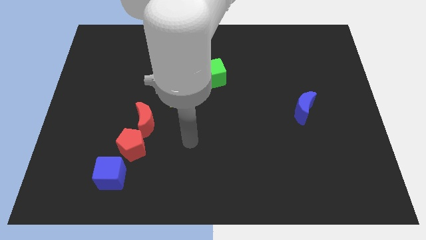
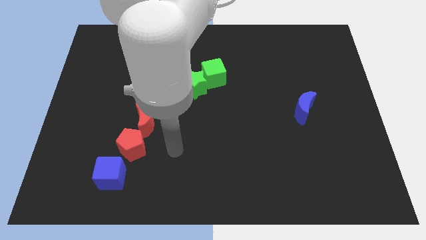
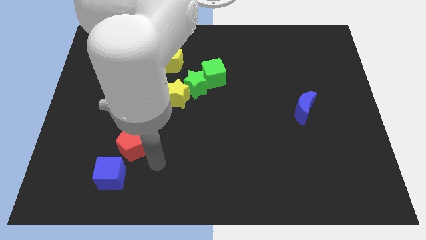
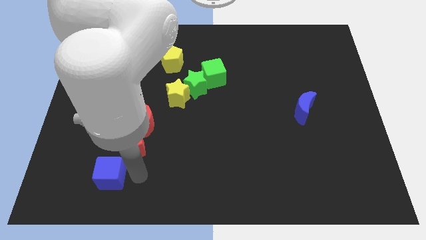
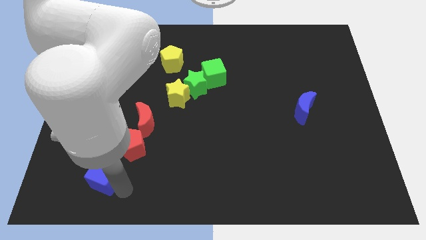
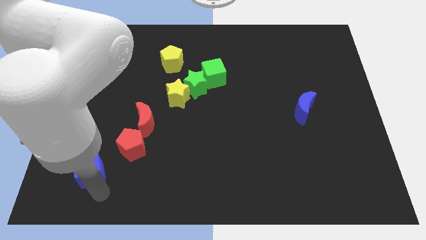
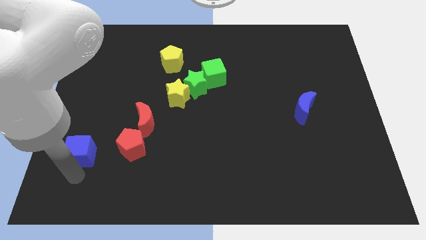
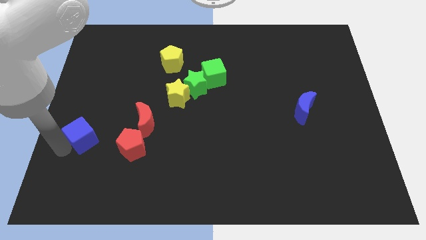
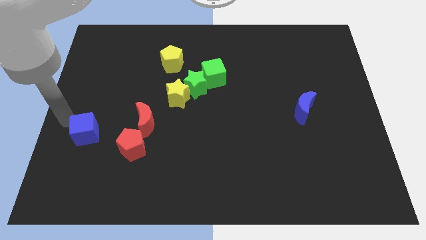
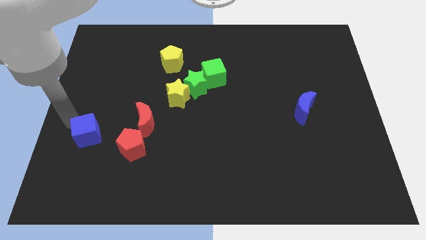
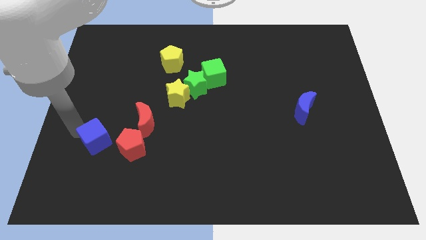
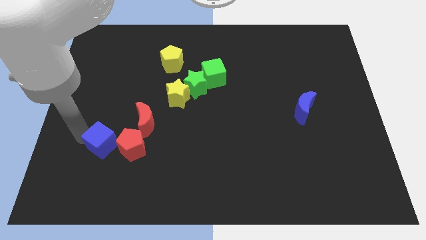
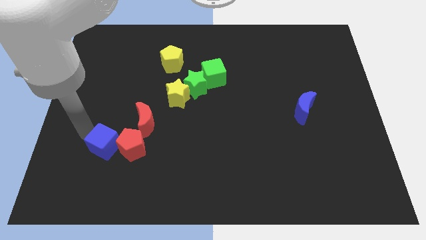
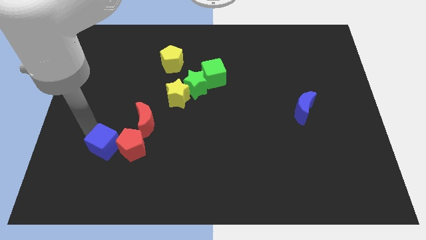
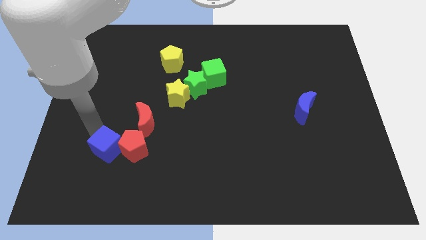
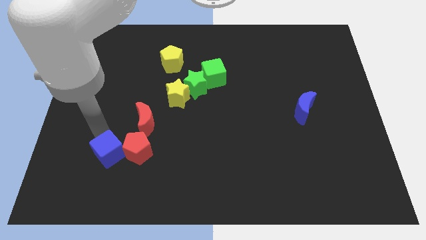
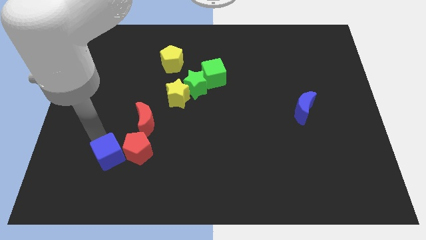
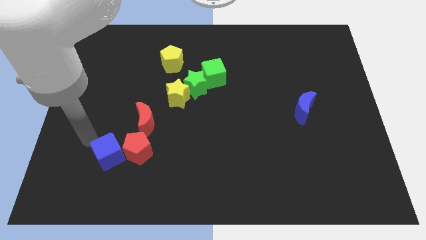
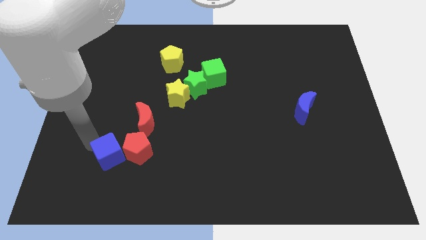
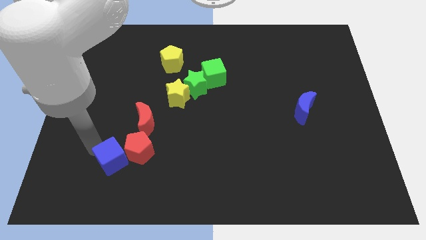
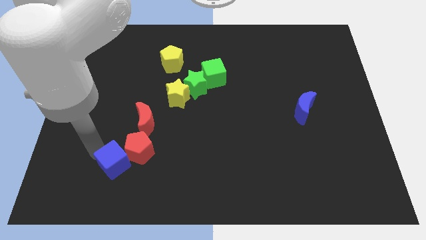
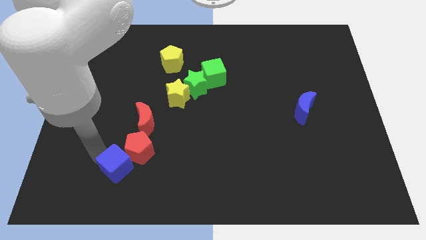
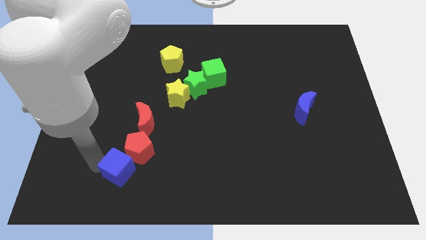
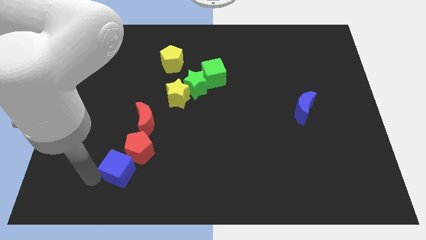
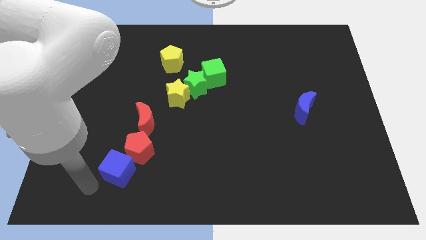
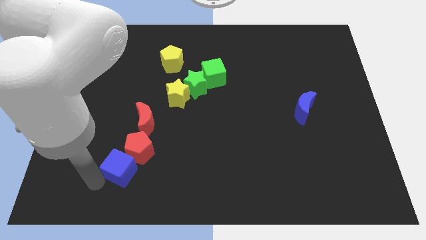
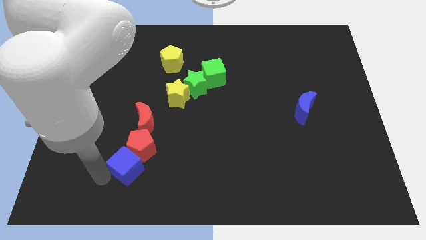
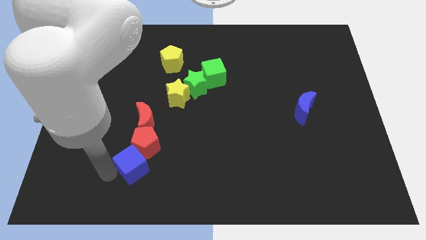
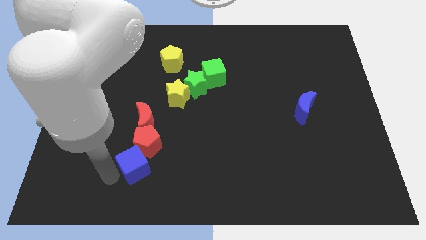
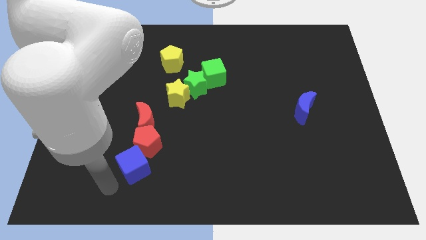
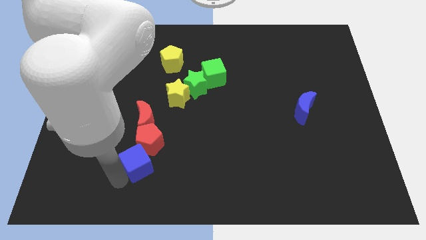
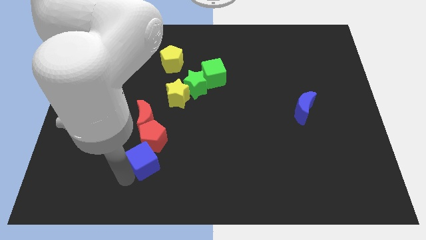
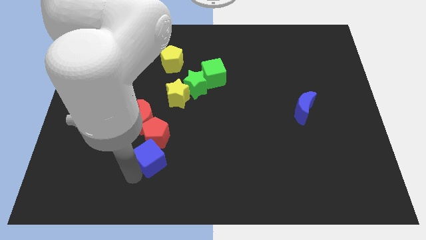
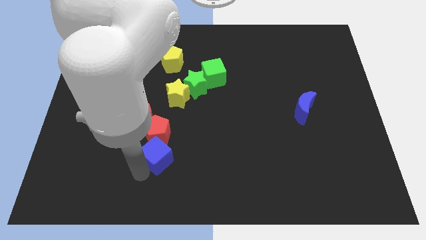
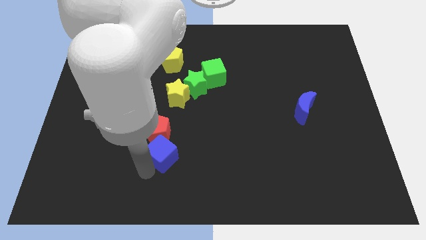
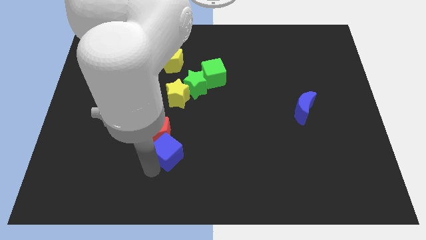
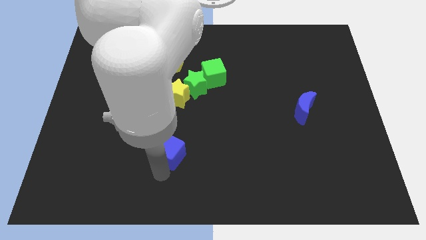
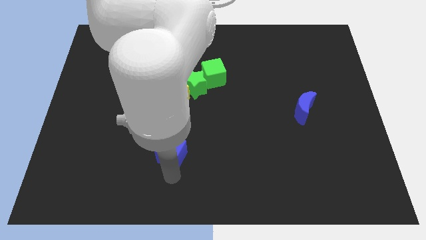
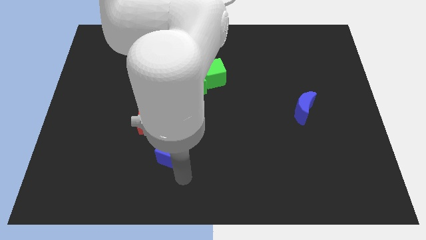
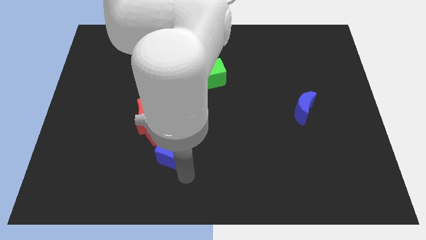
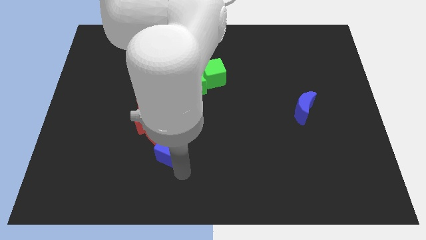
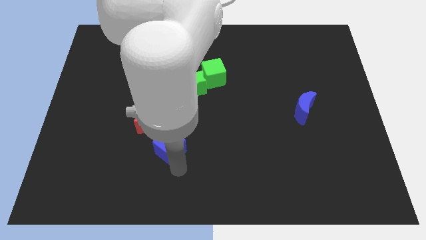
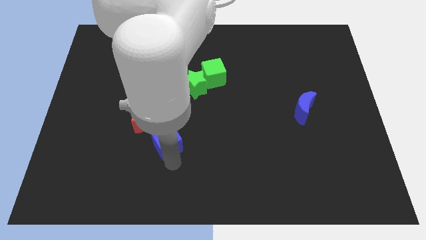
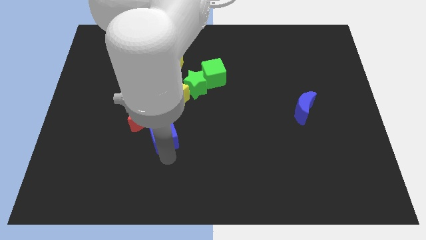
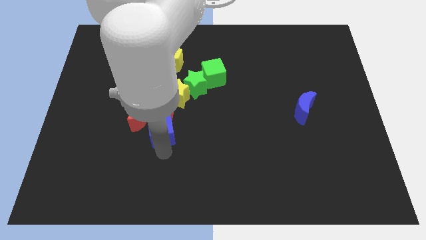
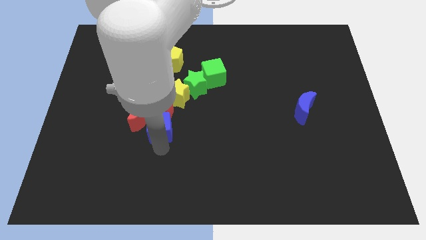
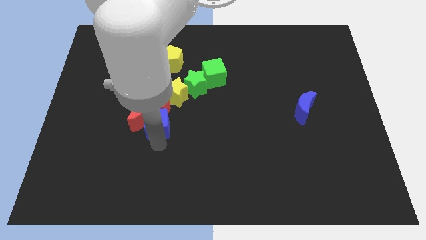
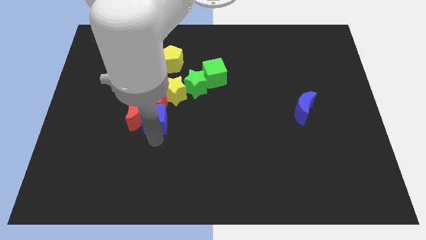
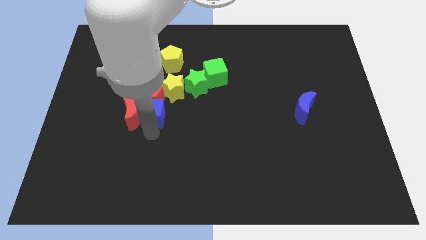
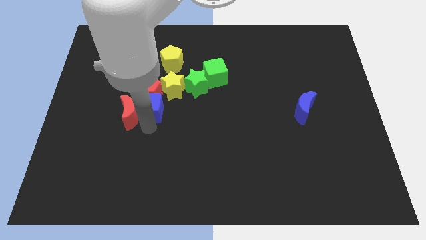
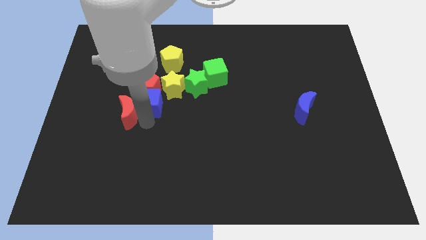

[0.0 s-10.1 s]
move the blue cube below the yellow pentagon

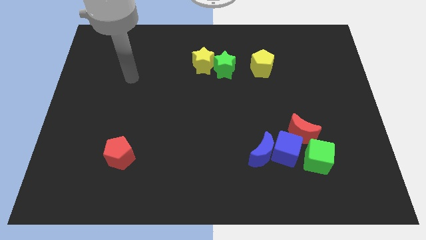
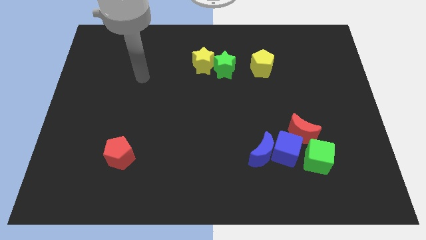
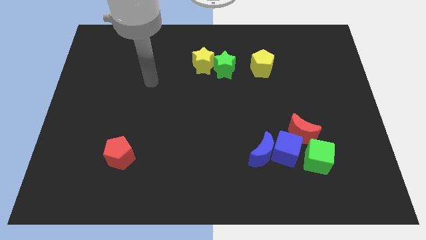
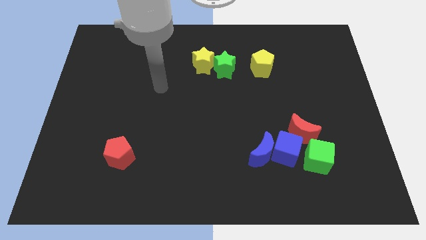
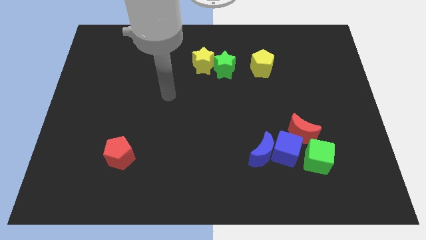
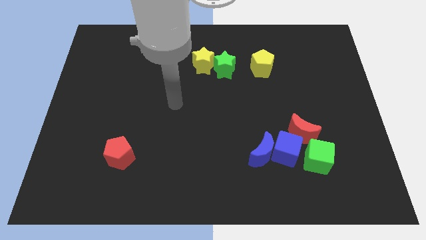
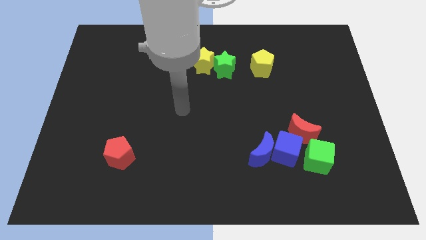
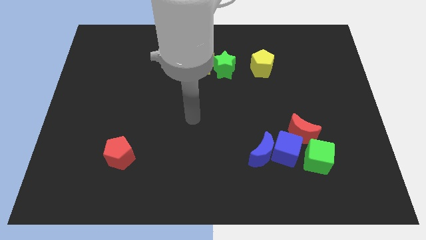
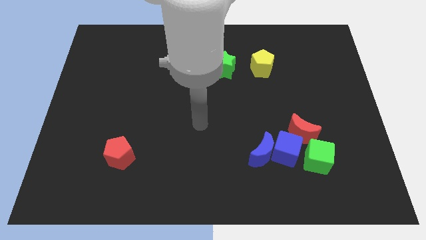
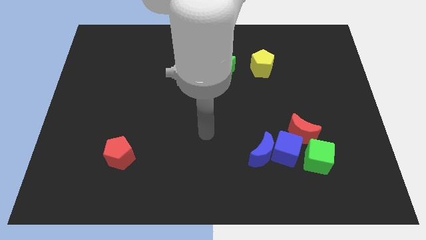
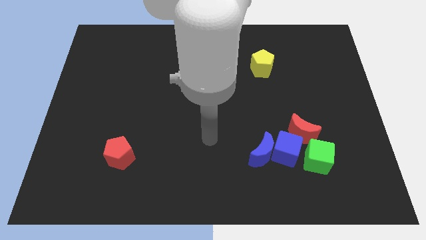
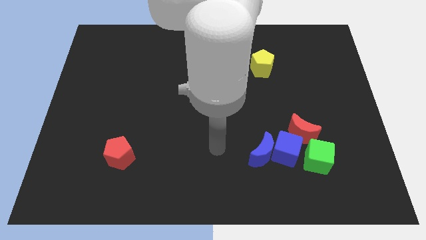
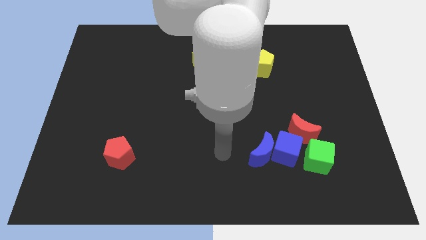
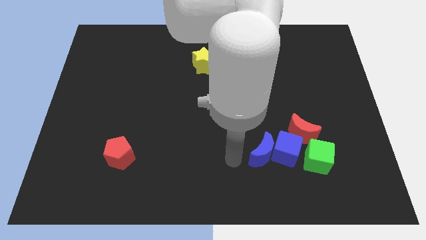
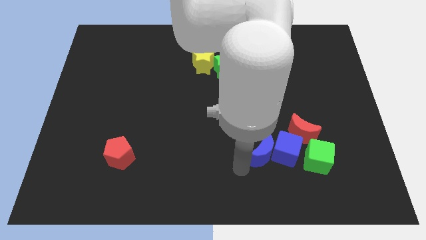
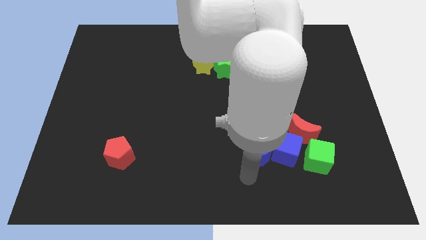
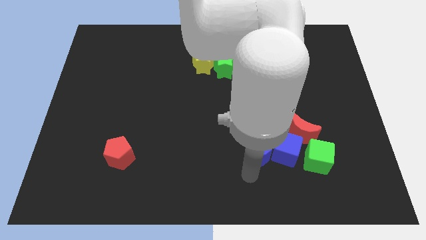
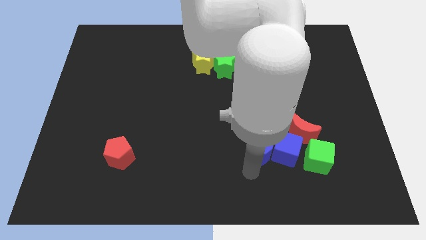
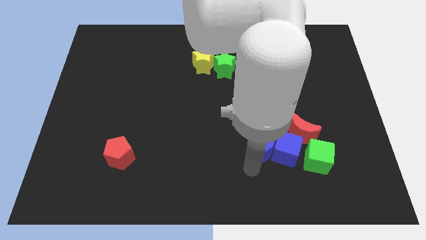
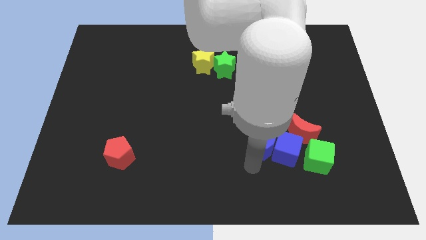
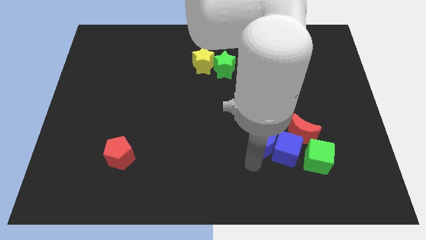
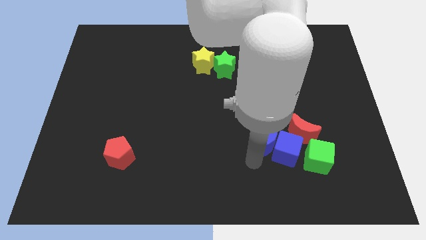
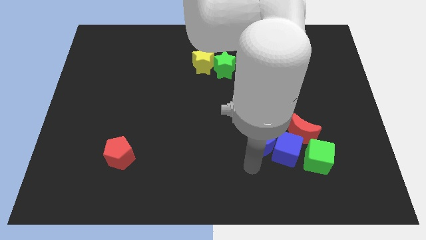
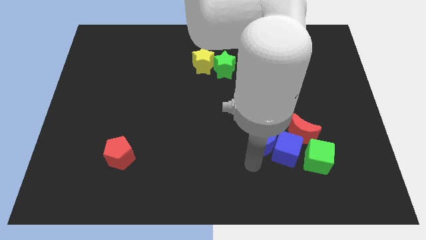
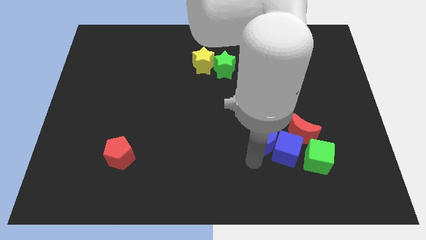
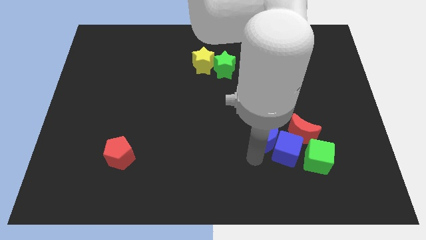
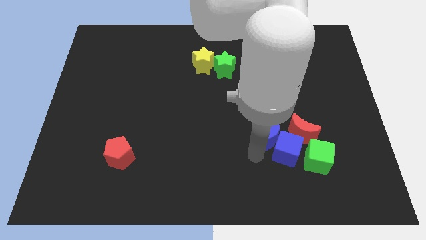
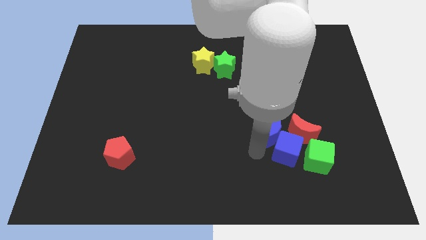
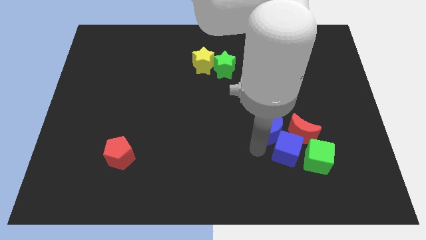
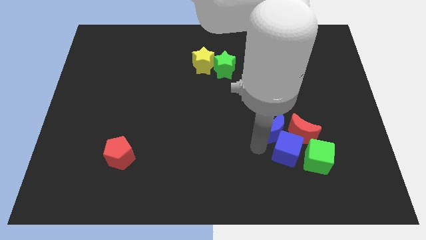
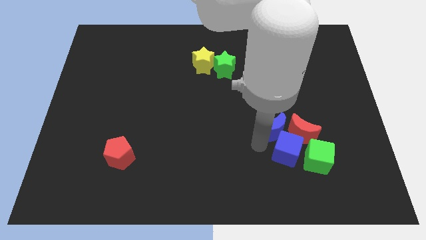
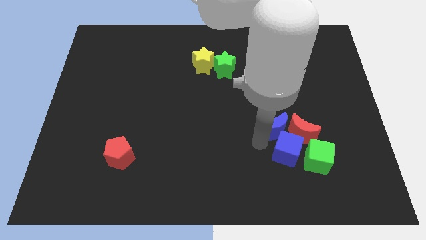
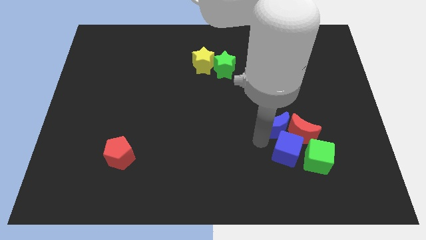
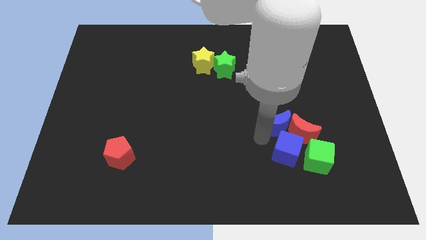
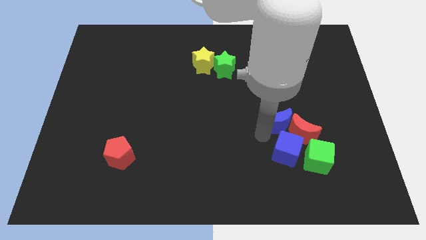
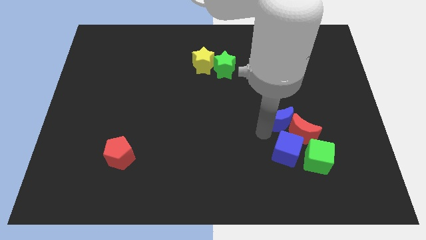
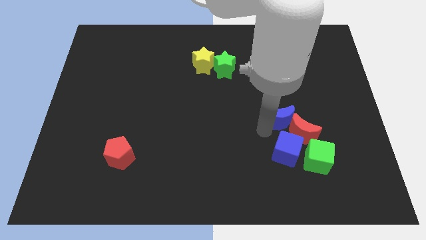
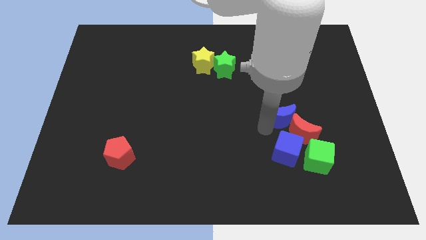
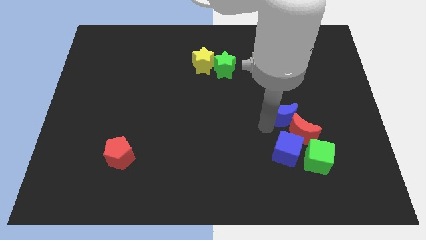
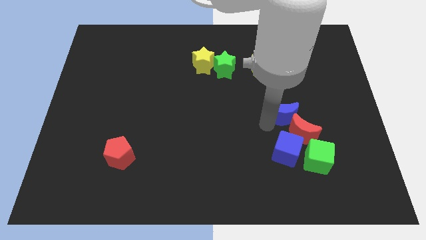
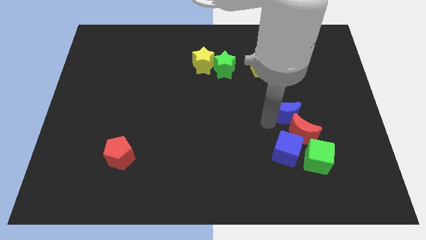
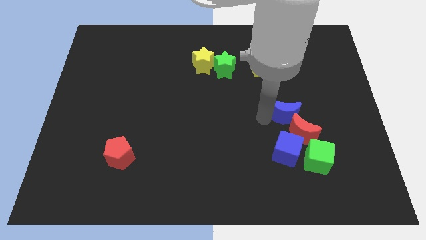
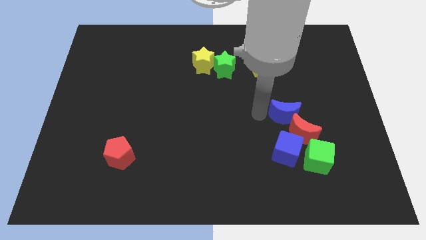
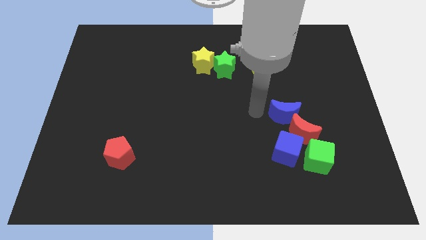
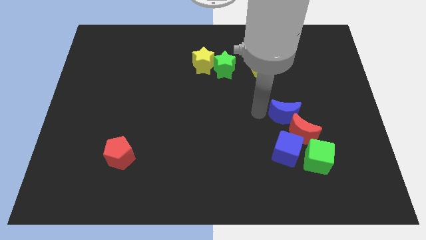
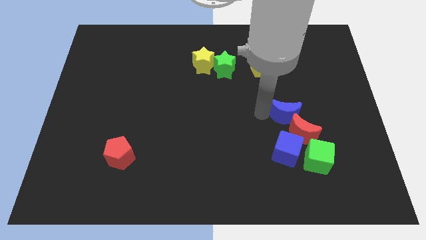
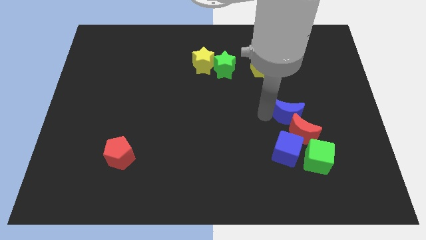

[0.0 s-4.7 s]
put the blue moon above the green cube
